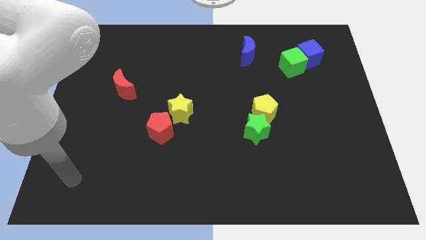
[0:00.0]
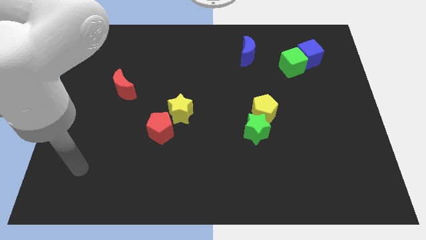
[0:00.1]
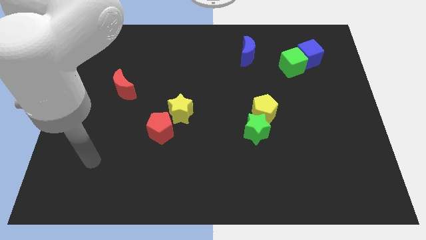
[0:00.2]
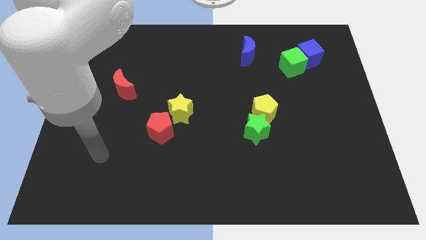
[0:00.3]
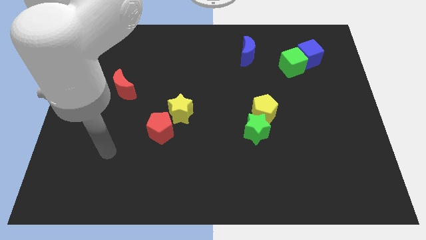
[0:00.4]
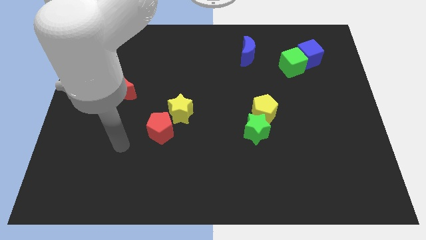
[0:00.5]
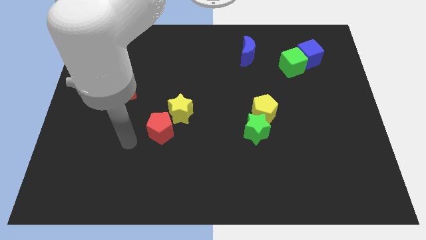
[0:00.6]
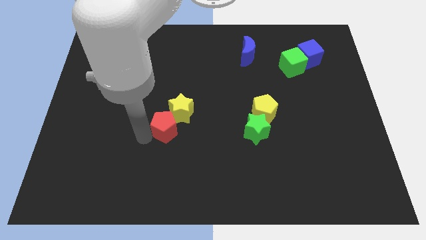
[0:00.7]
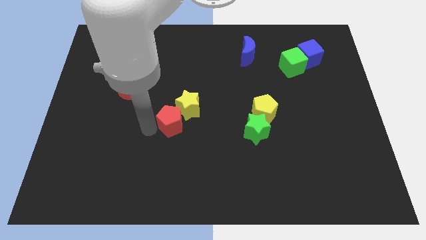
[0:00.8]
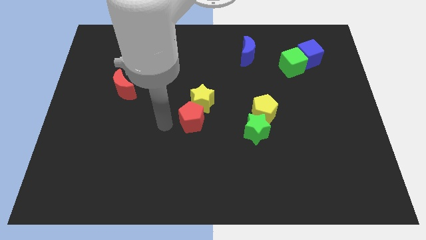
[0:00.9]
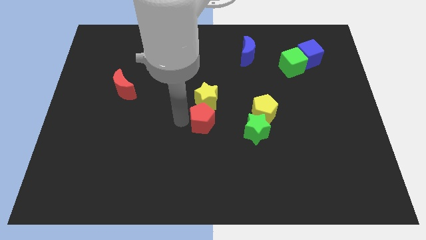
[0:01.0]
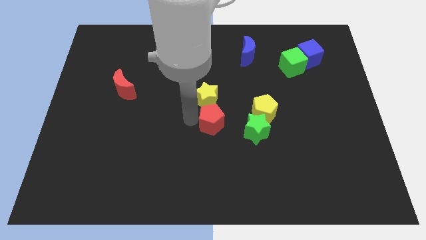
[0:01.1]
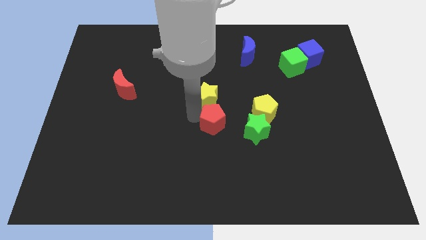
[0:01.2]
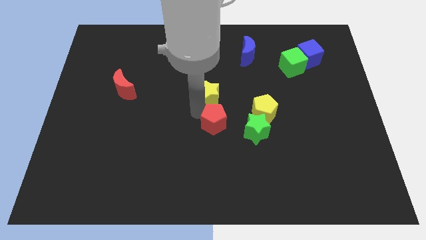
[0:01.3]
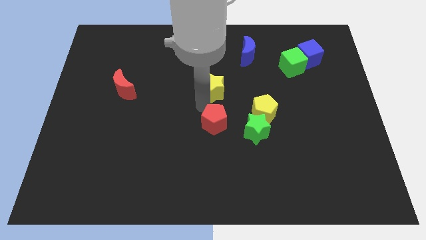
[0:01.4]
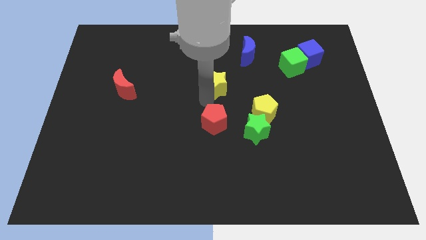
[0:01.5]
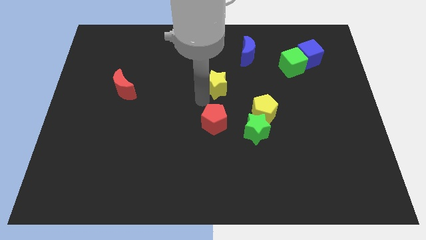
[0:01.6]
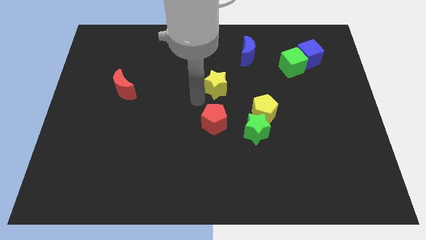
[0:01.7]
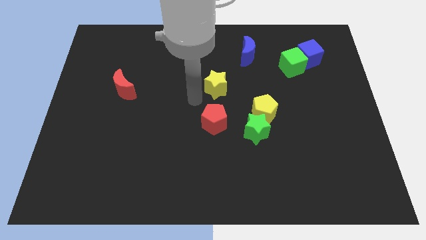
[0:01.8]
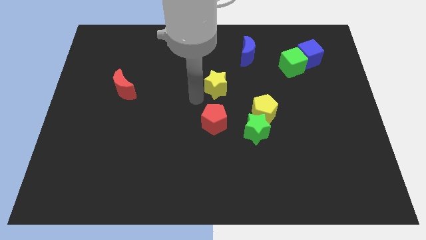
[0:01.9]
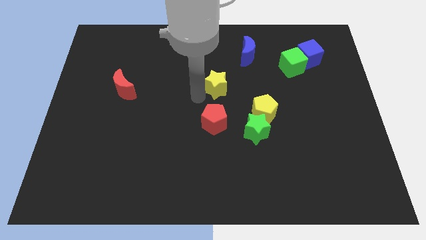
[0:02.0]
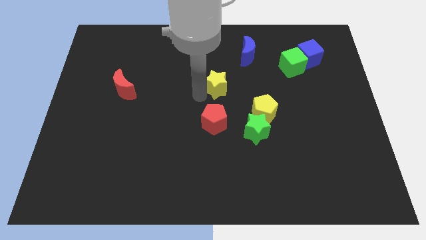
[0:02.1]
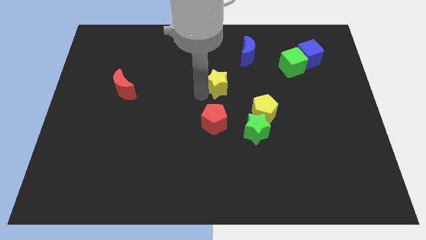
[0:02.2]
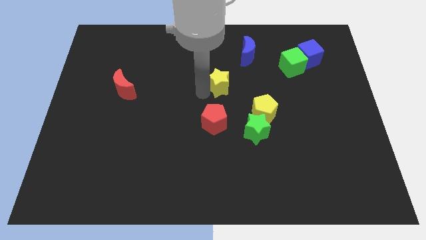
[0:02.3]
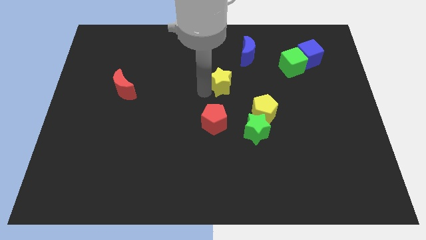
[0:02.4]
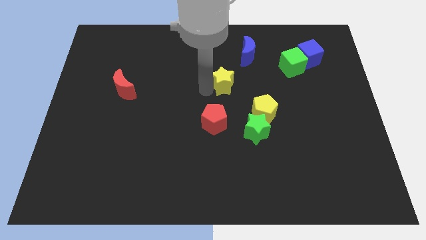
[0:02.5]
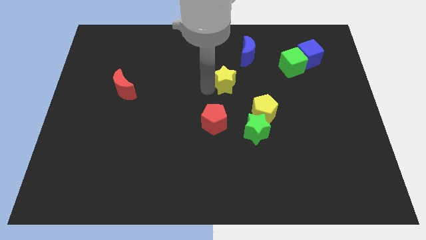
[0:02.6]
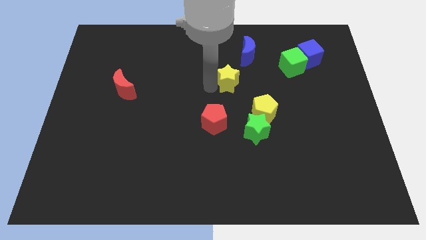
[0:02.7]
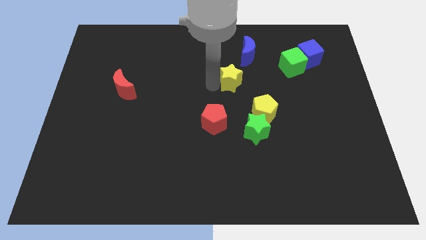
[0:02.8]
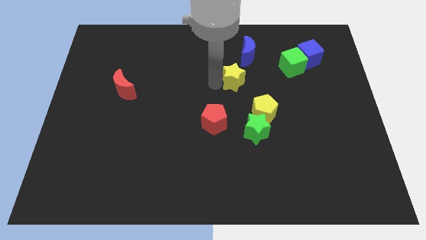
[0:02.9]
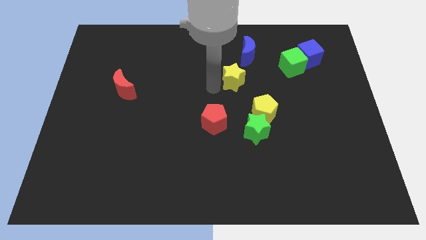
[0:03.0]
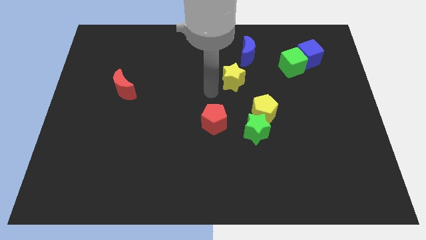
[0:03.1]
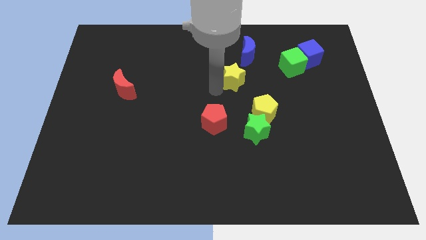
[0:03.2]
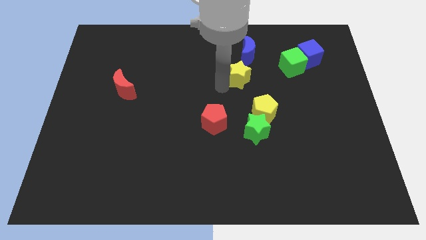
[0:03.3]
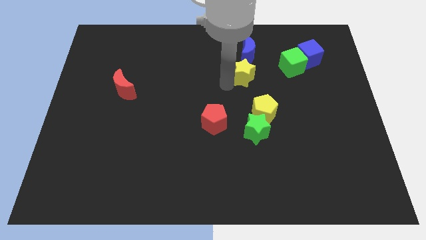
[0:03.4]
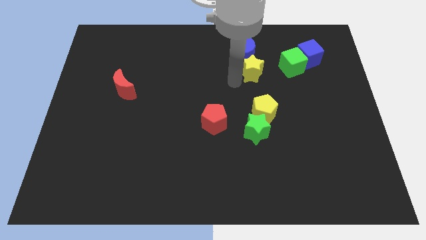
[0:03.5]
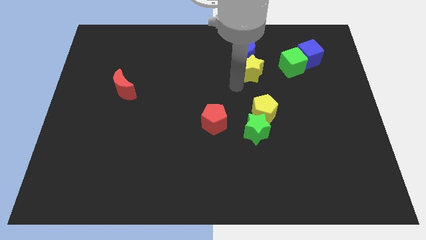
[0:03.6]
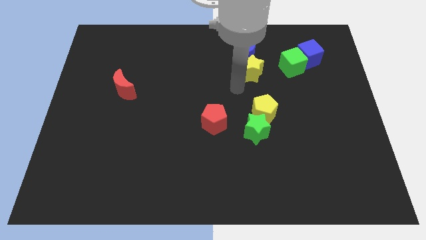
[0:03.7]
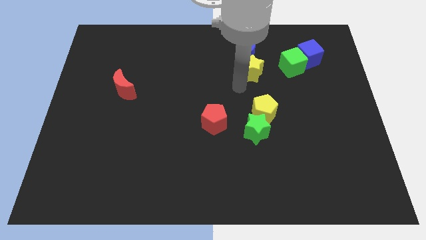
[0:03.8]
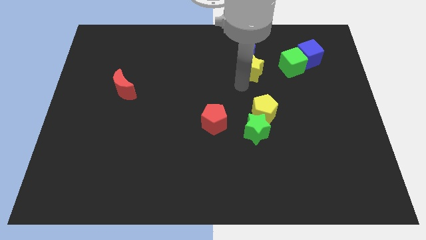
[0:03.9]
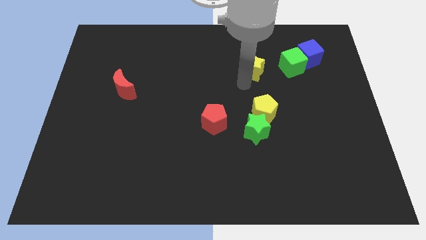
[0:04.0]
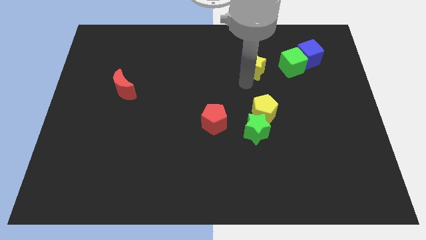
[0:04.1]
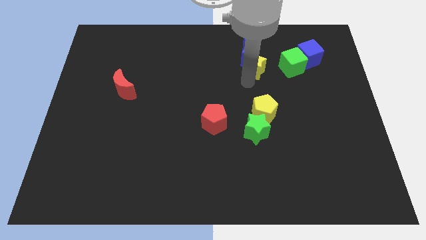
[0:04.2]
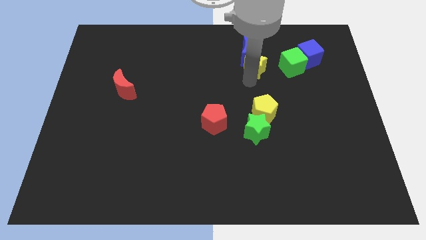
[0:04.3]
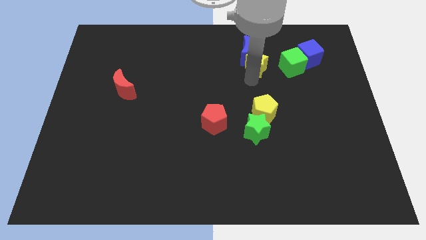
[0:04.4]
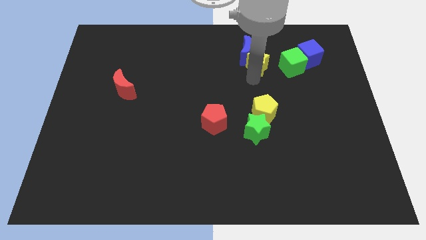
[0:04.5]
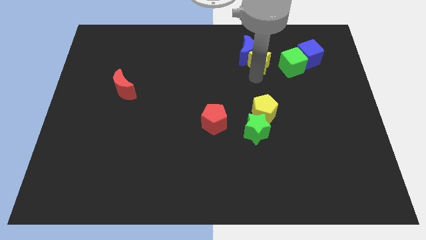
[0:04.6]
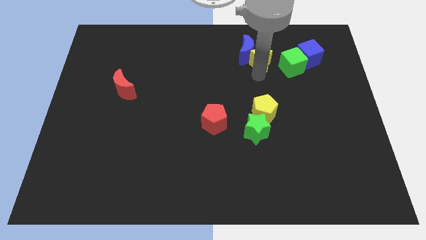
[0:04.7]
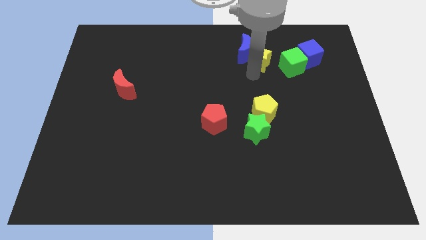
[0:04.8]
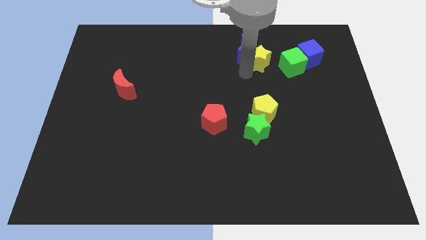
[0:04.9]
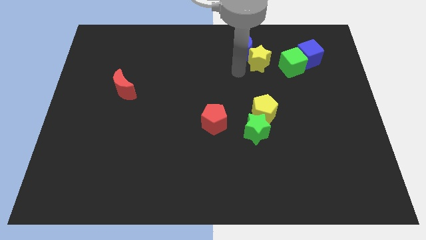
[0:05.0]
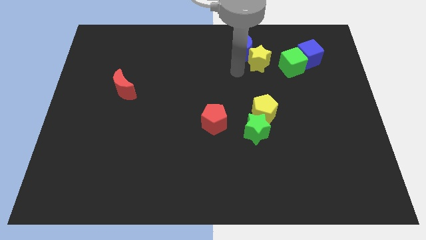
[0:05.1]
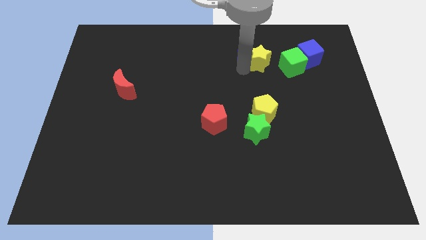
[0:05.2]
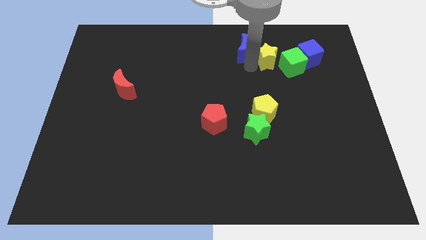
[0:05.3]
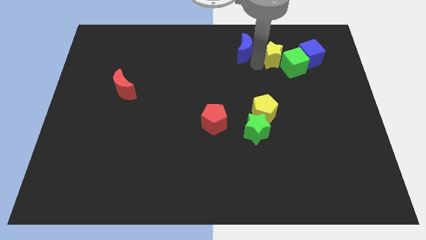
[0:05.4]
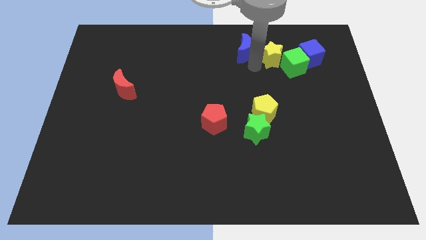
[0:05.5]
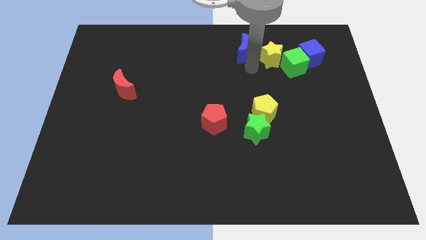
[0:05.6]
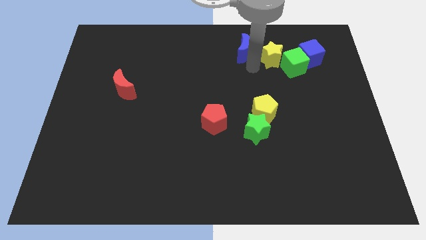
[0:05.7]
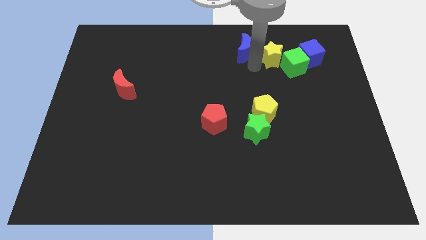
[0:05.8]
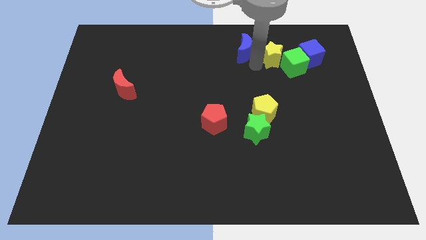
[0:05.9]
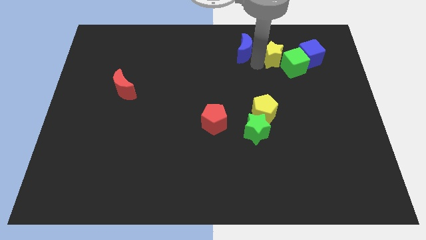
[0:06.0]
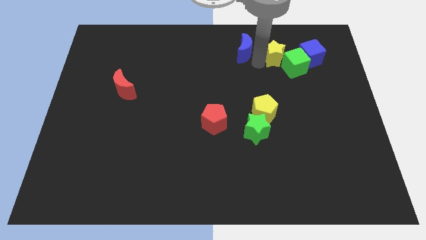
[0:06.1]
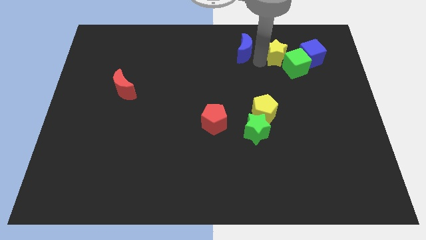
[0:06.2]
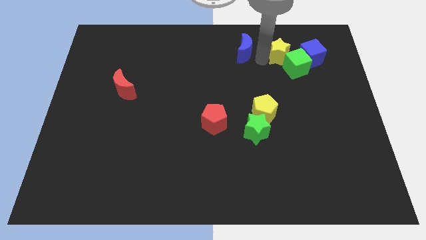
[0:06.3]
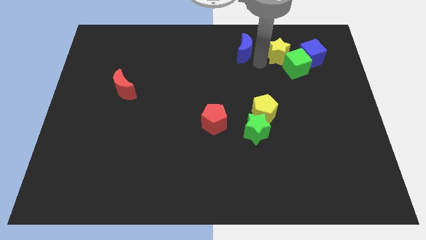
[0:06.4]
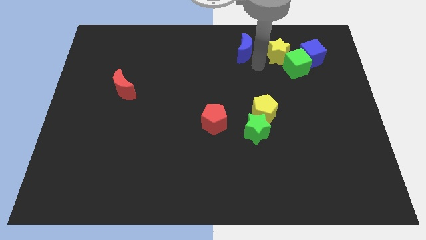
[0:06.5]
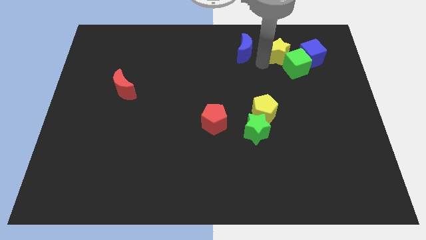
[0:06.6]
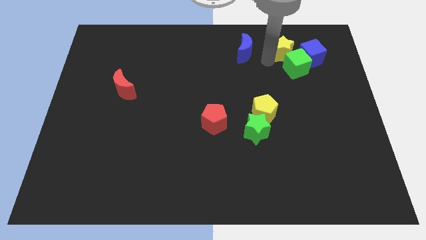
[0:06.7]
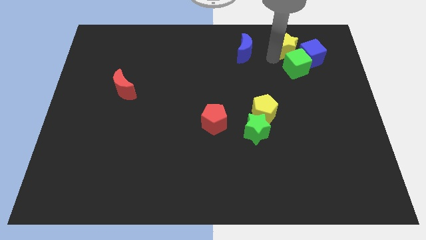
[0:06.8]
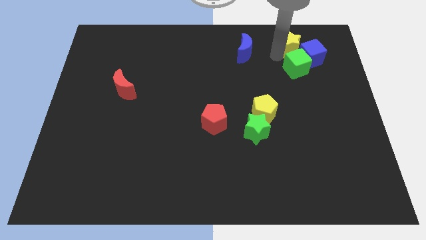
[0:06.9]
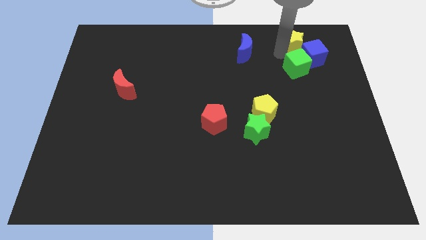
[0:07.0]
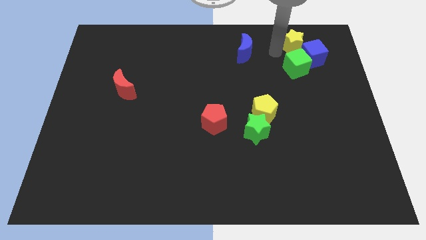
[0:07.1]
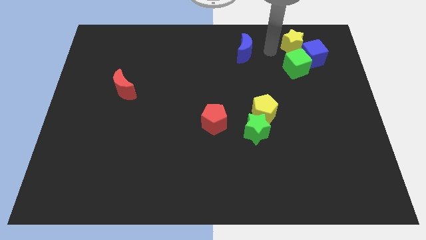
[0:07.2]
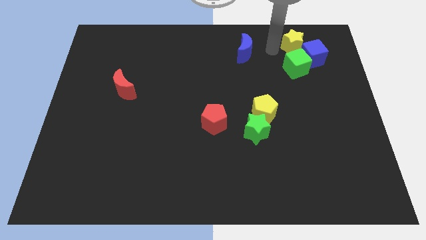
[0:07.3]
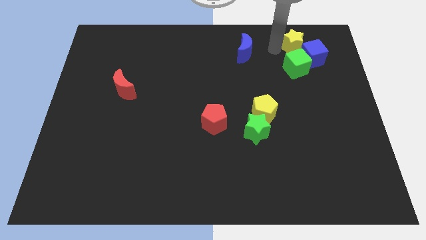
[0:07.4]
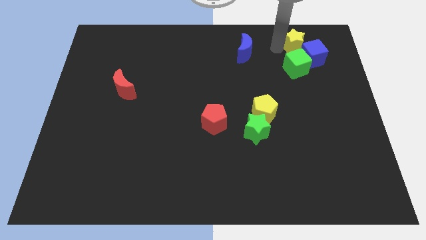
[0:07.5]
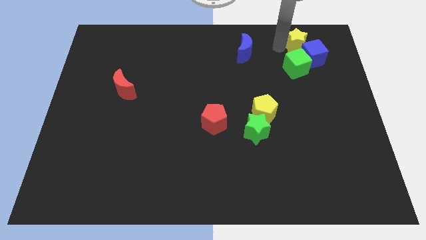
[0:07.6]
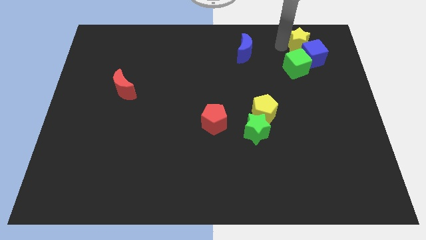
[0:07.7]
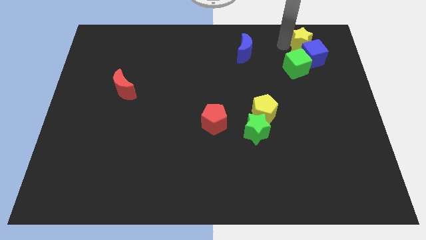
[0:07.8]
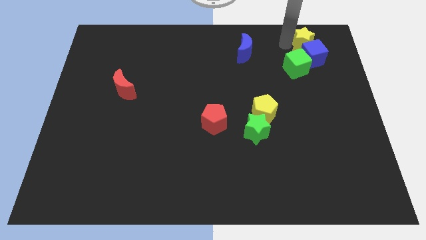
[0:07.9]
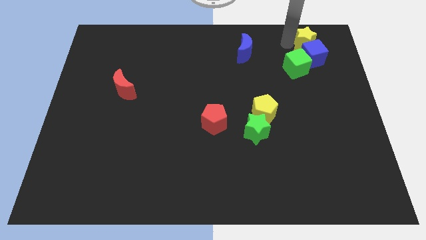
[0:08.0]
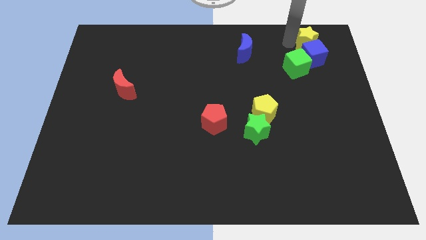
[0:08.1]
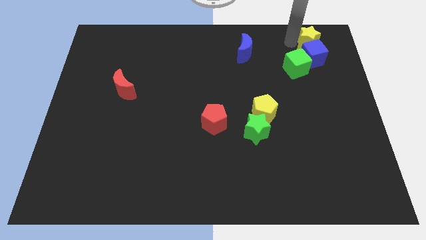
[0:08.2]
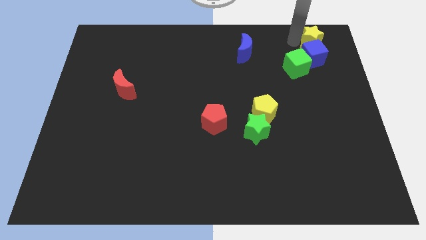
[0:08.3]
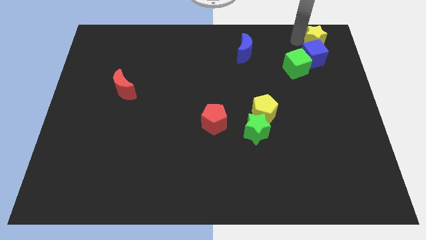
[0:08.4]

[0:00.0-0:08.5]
put the yellow star to the upper right corner
